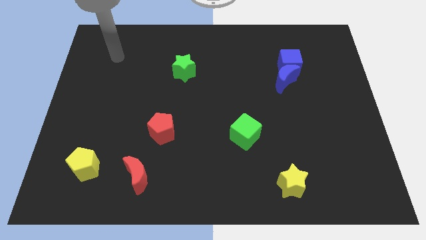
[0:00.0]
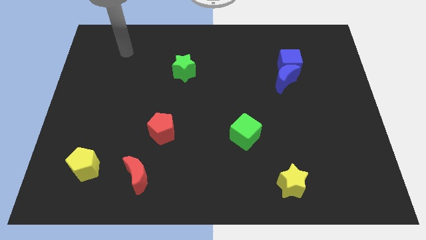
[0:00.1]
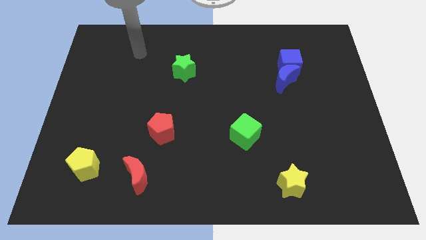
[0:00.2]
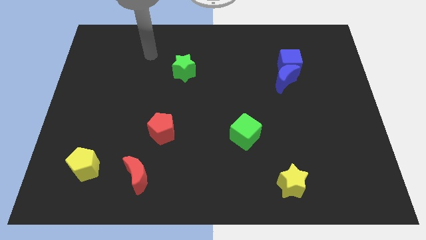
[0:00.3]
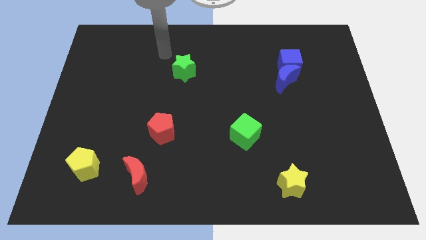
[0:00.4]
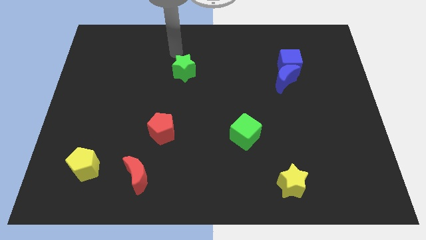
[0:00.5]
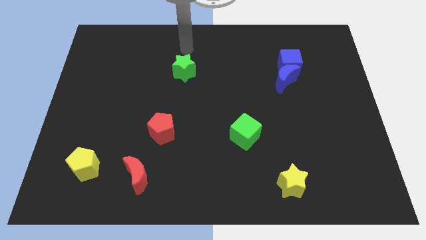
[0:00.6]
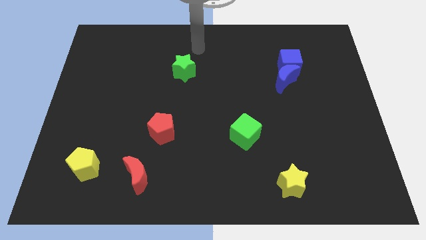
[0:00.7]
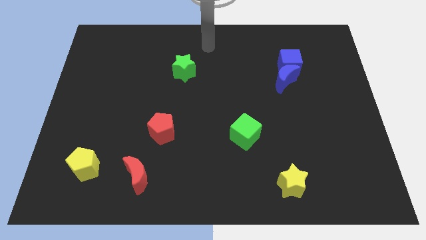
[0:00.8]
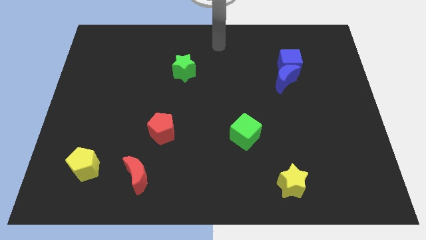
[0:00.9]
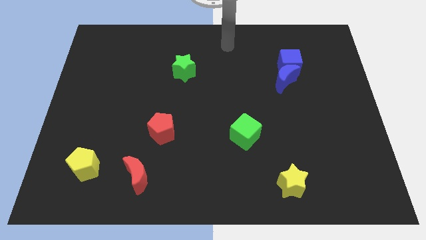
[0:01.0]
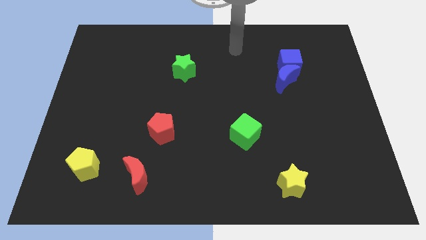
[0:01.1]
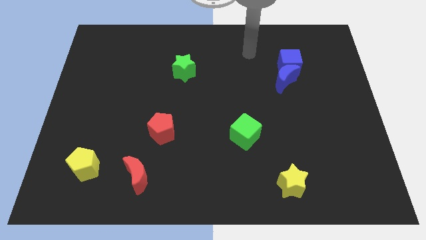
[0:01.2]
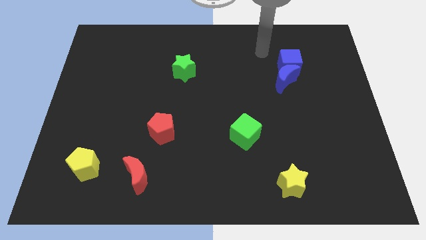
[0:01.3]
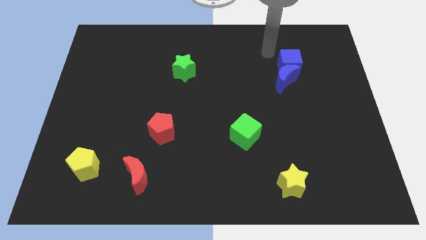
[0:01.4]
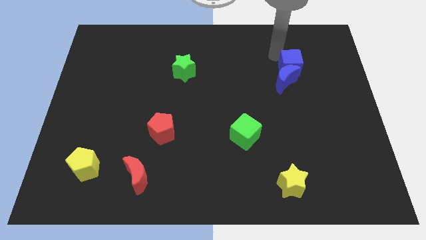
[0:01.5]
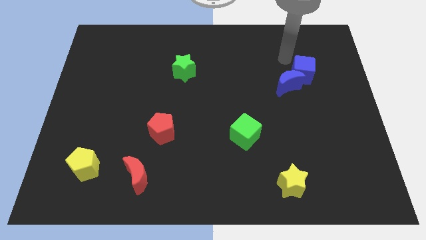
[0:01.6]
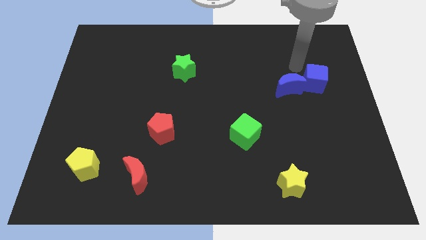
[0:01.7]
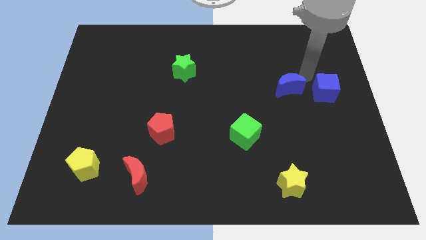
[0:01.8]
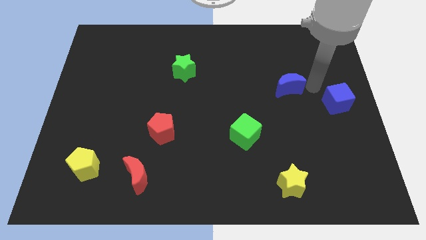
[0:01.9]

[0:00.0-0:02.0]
move the blue moon away from the blue cube

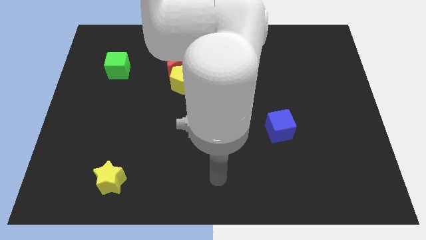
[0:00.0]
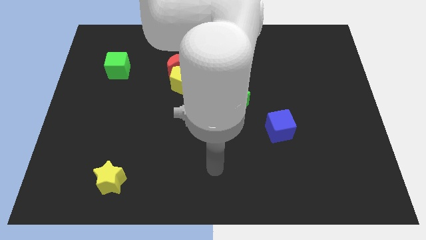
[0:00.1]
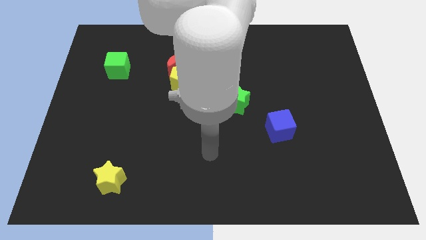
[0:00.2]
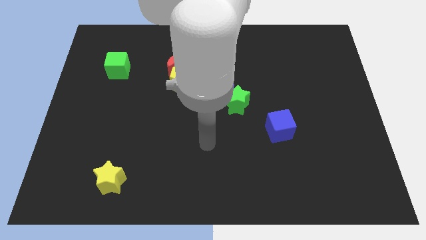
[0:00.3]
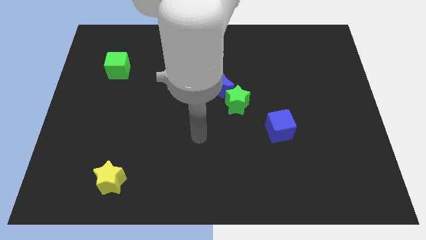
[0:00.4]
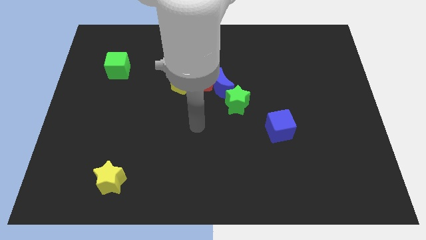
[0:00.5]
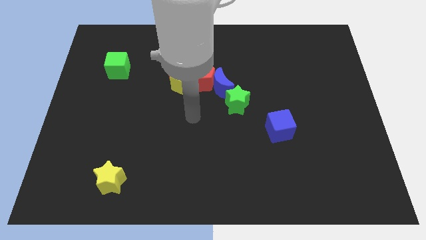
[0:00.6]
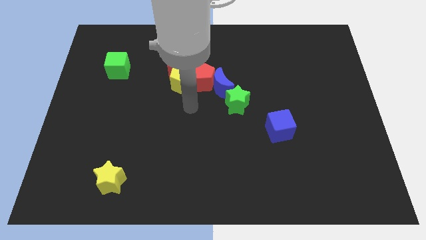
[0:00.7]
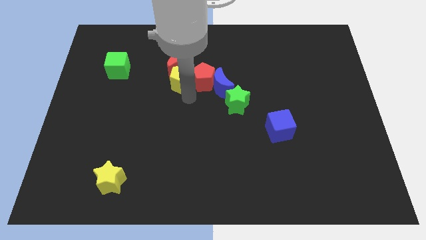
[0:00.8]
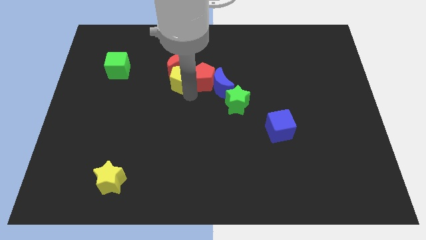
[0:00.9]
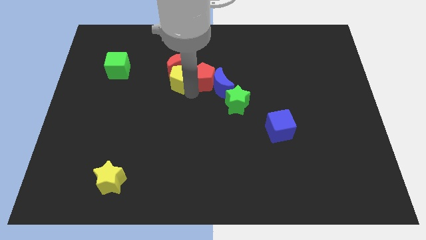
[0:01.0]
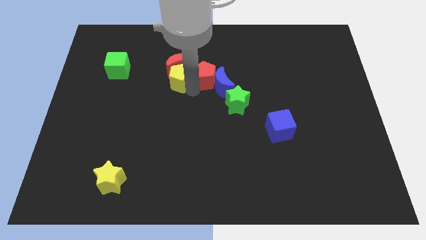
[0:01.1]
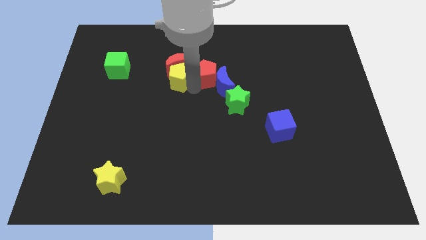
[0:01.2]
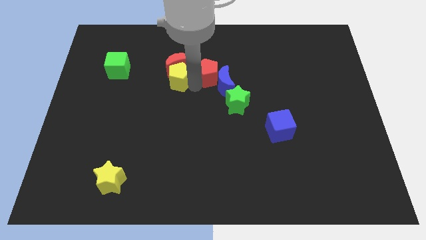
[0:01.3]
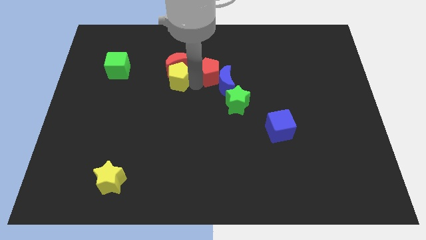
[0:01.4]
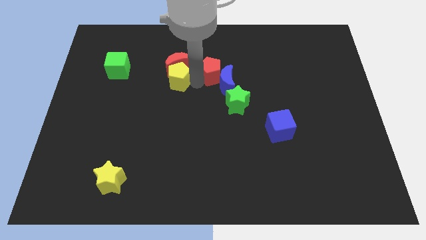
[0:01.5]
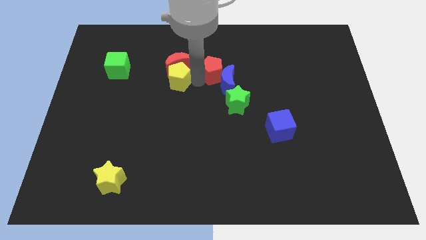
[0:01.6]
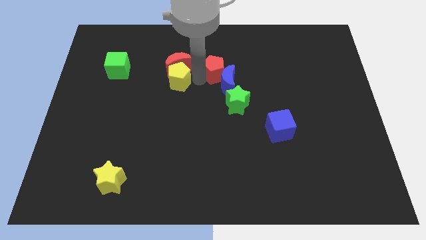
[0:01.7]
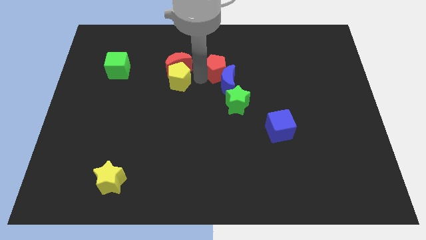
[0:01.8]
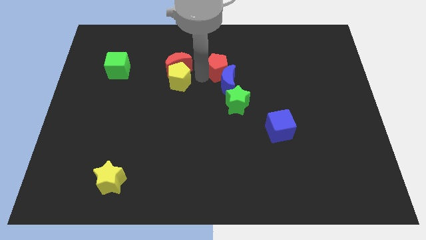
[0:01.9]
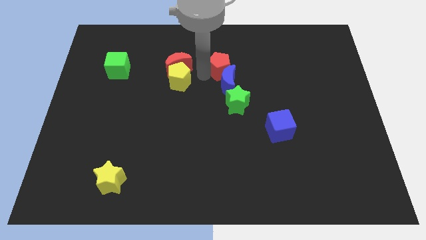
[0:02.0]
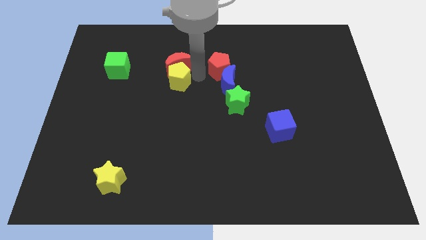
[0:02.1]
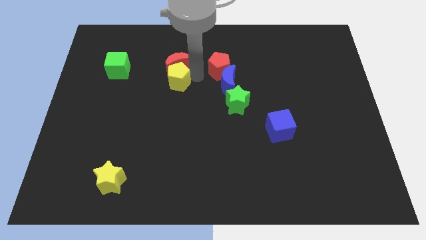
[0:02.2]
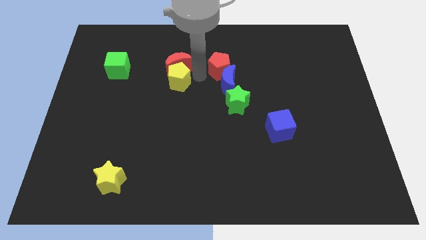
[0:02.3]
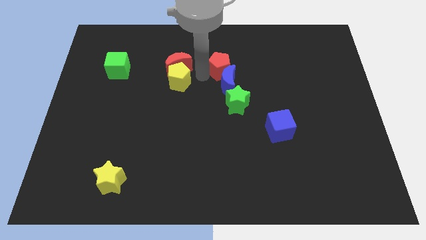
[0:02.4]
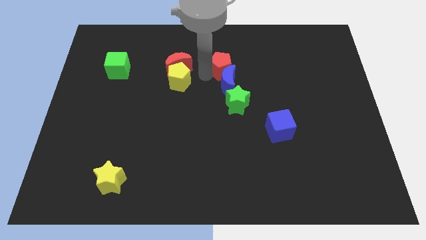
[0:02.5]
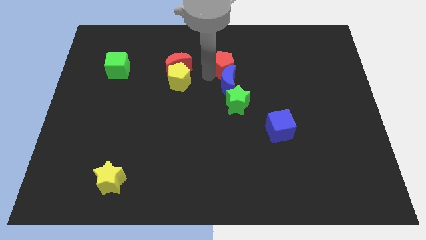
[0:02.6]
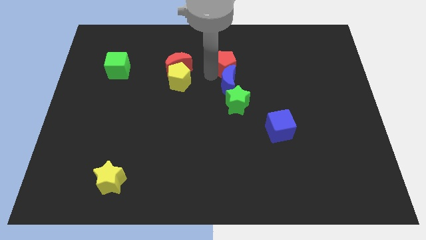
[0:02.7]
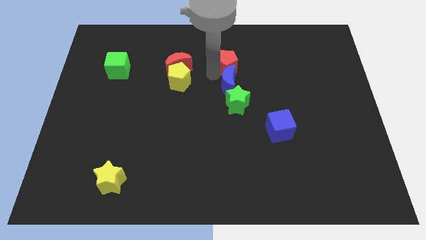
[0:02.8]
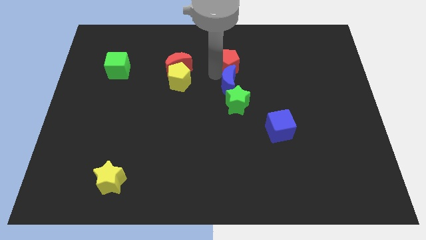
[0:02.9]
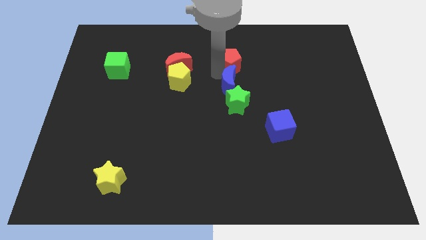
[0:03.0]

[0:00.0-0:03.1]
move the red pentagon away from the blue moon, yellow pentagon, and red moon

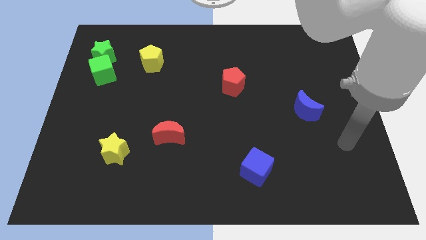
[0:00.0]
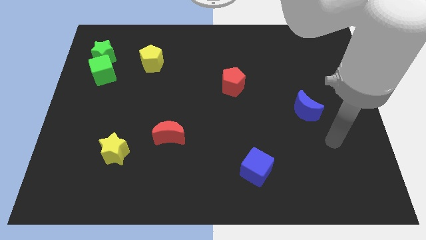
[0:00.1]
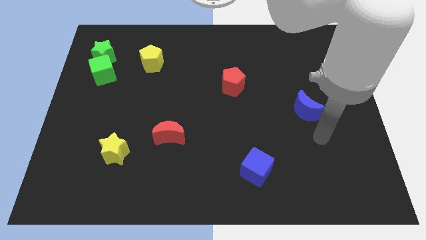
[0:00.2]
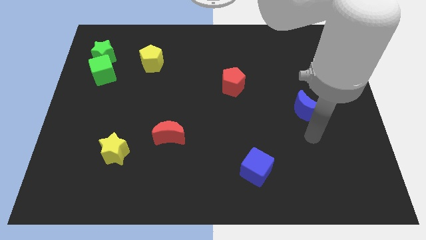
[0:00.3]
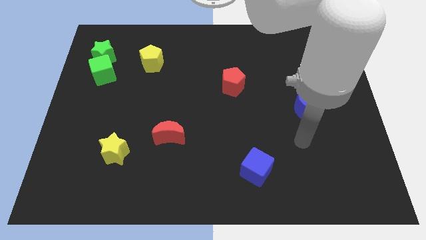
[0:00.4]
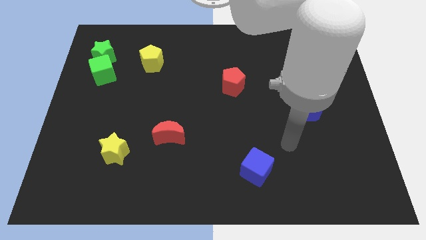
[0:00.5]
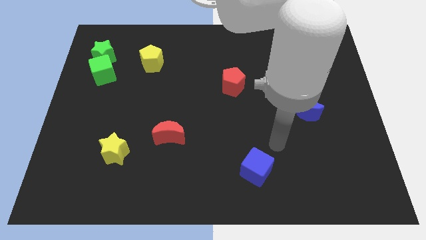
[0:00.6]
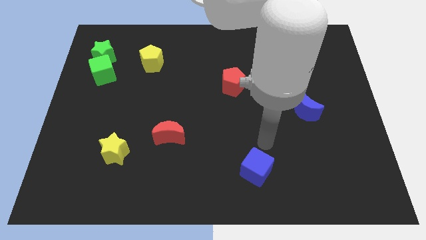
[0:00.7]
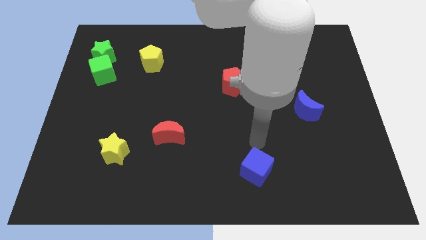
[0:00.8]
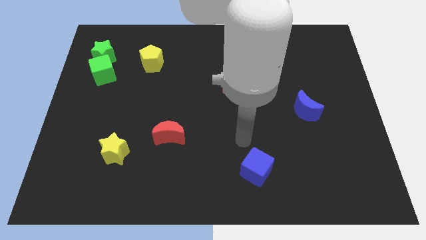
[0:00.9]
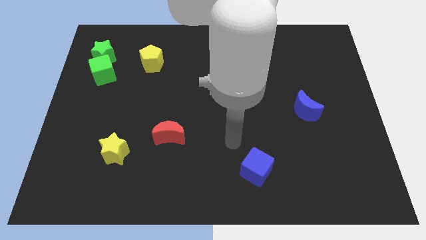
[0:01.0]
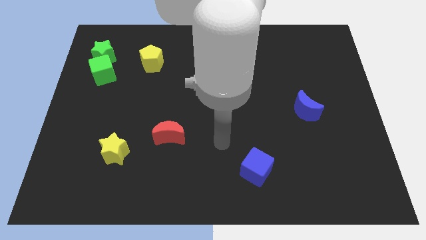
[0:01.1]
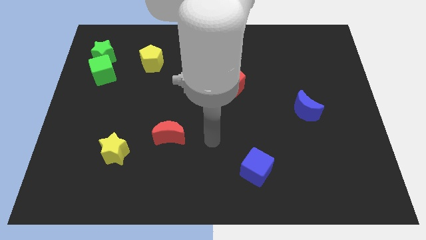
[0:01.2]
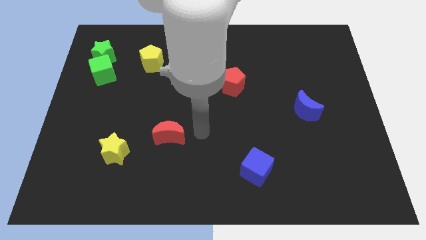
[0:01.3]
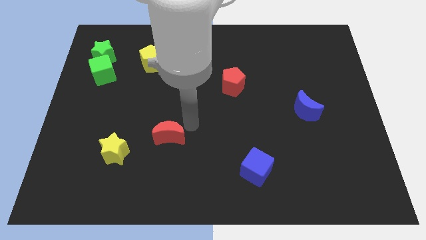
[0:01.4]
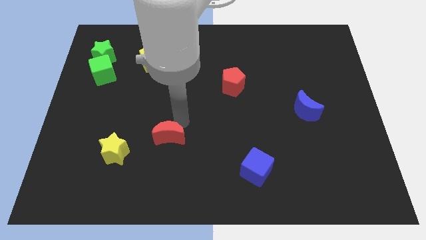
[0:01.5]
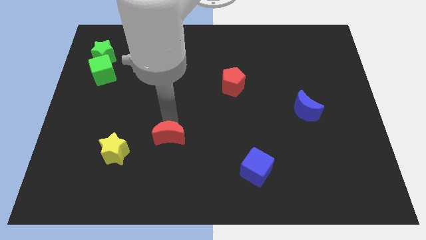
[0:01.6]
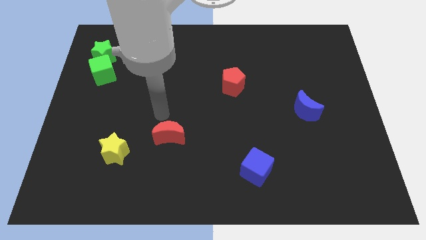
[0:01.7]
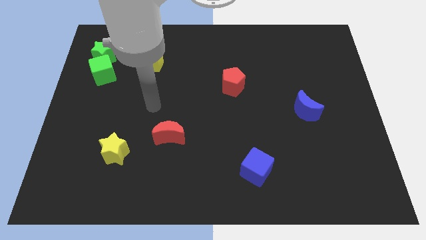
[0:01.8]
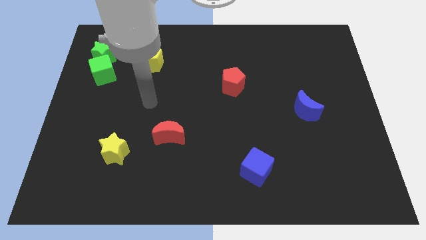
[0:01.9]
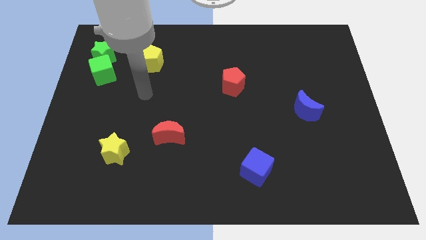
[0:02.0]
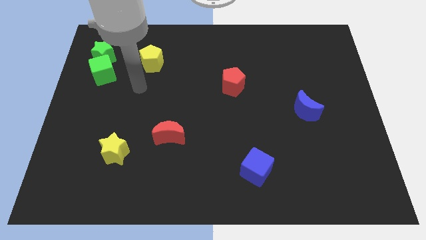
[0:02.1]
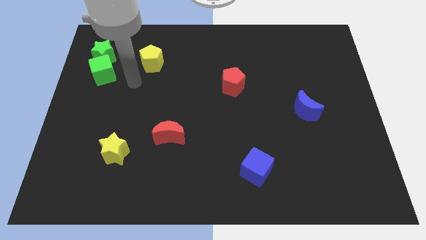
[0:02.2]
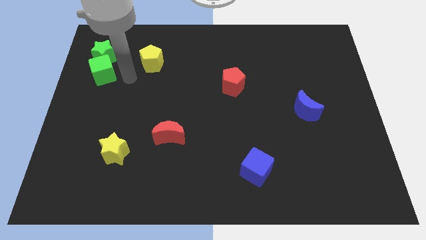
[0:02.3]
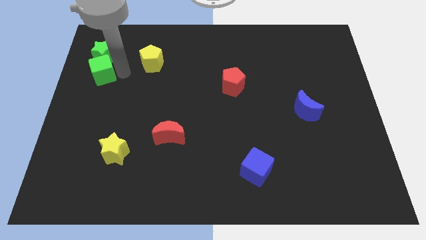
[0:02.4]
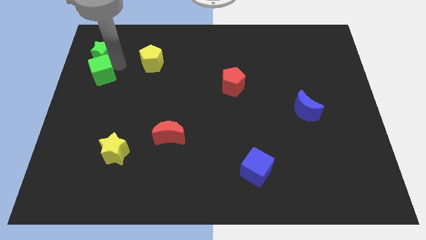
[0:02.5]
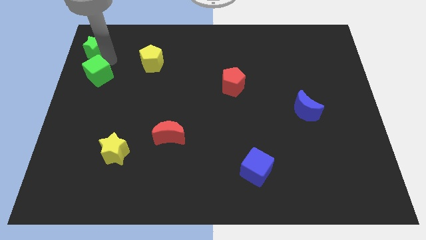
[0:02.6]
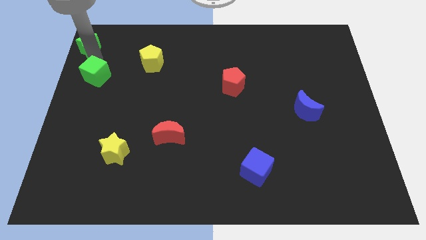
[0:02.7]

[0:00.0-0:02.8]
pull the green cube apart from the green star

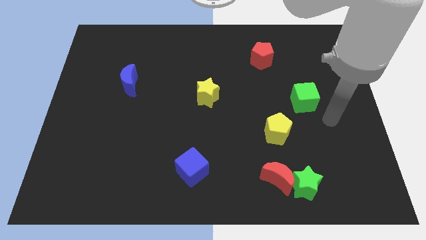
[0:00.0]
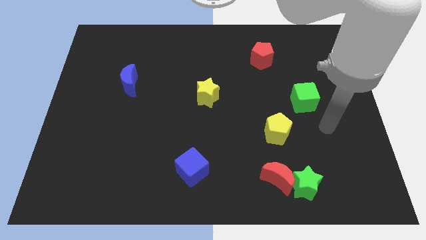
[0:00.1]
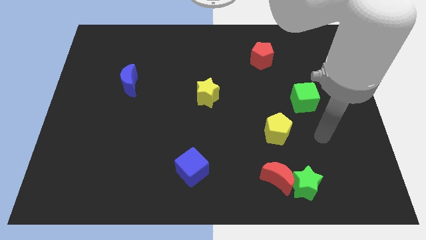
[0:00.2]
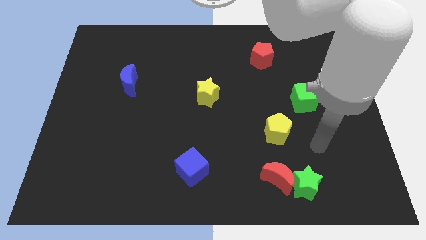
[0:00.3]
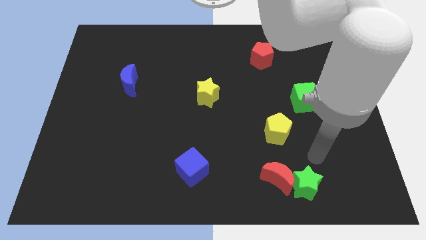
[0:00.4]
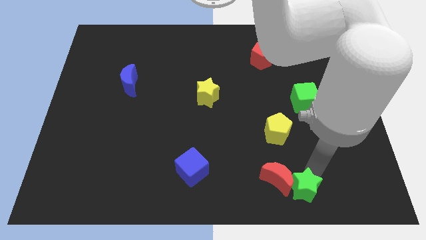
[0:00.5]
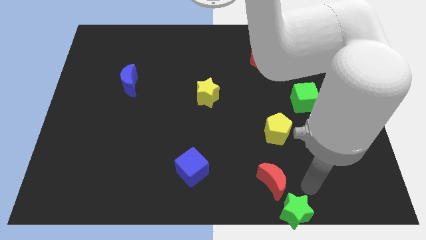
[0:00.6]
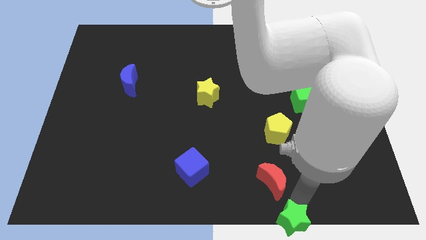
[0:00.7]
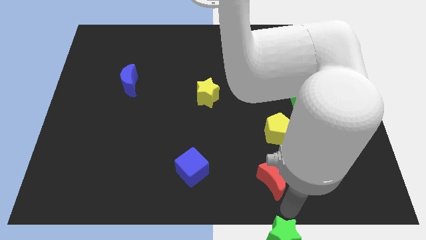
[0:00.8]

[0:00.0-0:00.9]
pull the red moon apart from the green star

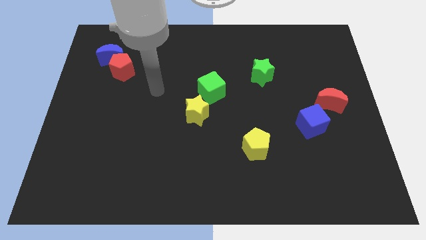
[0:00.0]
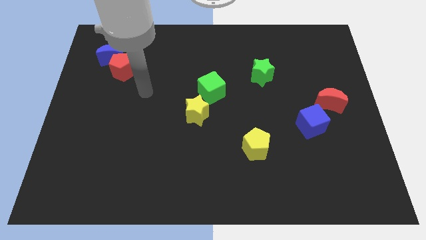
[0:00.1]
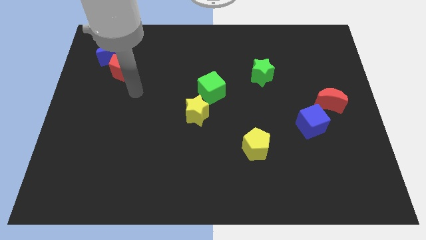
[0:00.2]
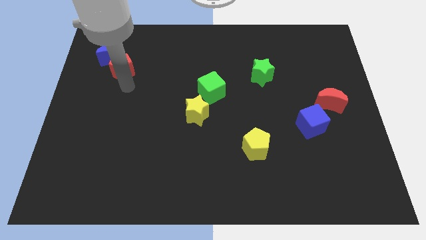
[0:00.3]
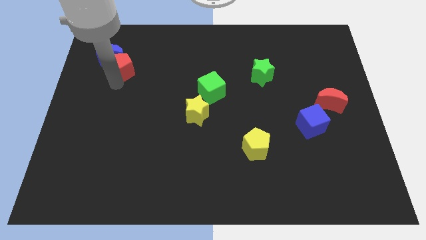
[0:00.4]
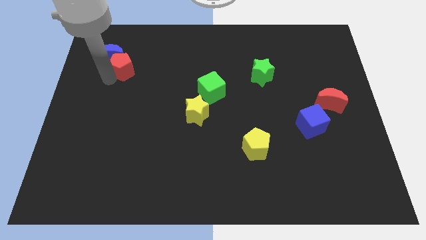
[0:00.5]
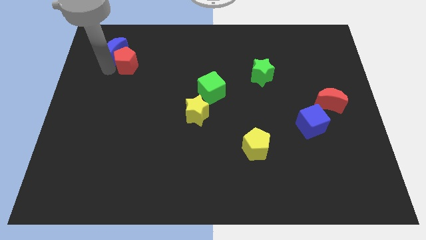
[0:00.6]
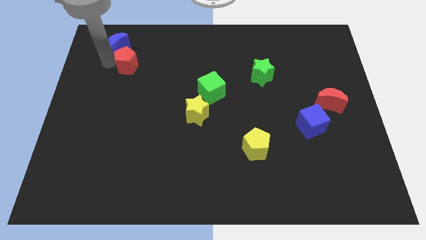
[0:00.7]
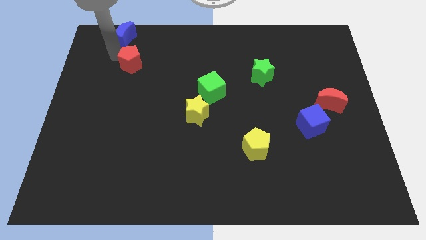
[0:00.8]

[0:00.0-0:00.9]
separate the red pentagon from the blue moon
